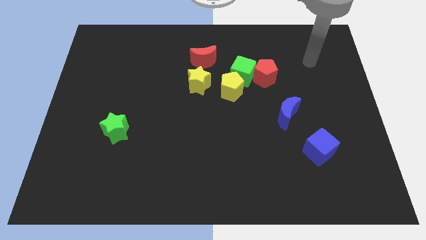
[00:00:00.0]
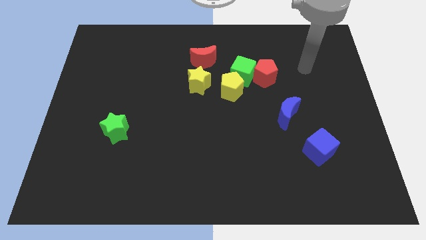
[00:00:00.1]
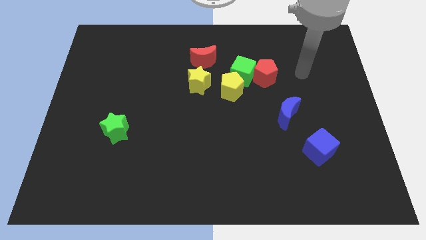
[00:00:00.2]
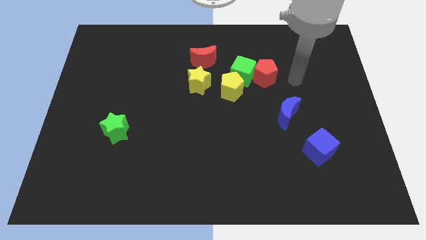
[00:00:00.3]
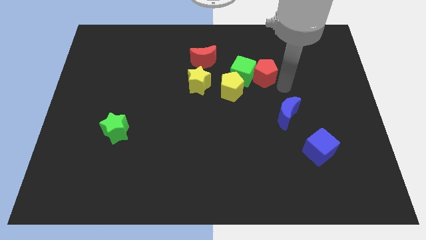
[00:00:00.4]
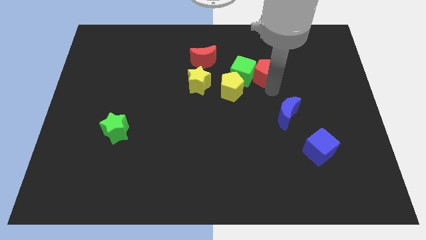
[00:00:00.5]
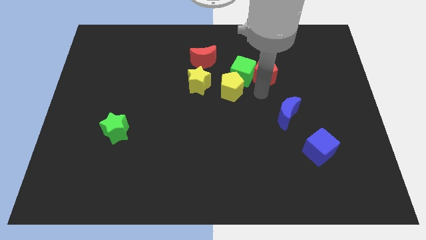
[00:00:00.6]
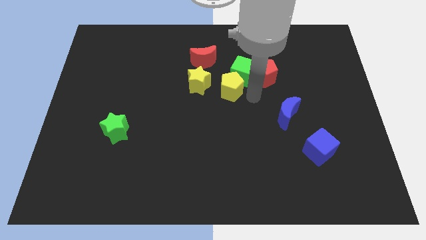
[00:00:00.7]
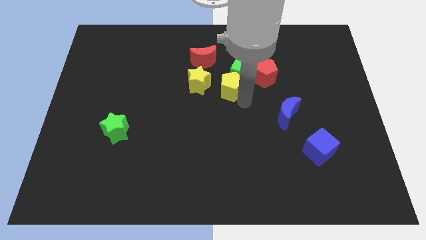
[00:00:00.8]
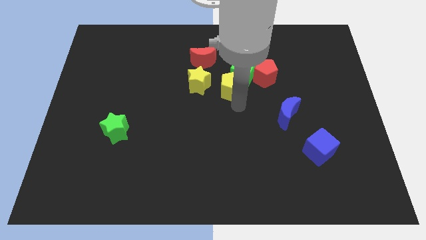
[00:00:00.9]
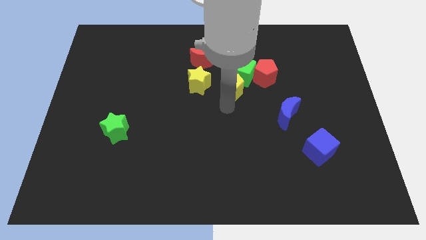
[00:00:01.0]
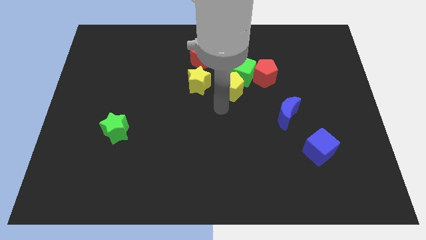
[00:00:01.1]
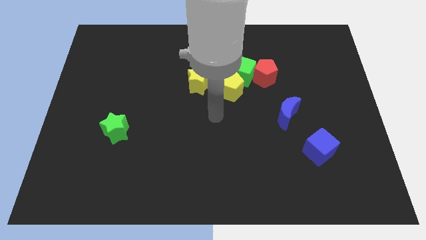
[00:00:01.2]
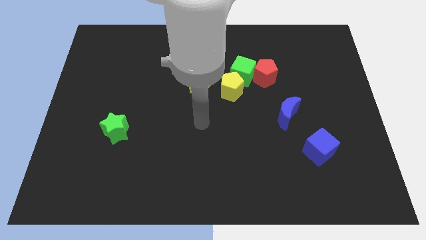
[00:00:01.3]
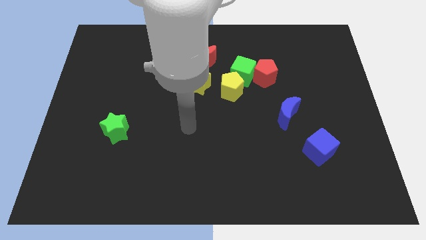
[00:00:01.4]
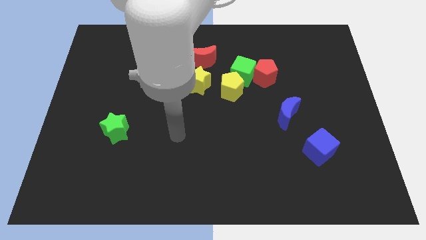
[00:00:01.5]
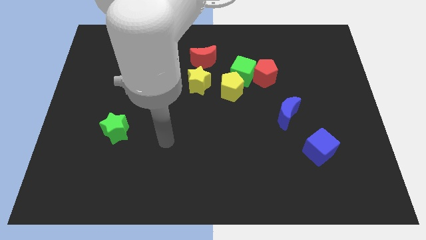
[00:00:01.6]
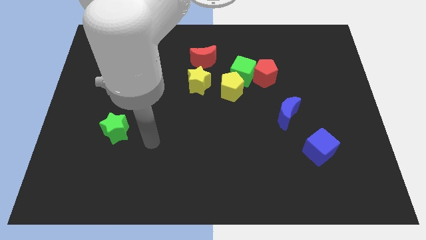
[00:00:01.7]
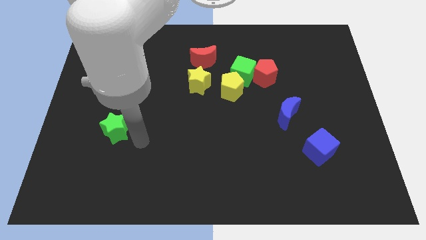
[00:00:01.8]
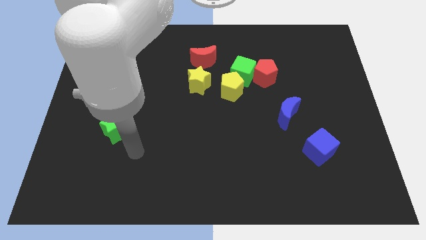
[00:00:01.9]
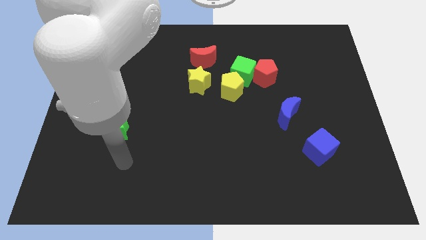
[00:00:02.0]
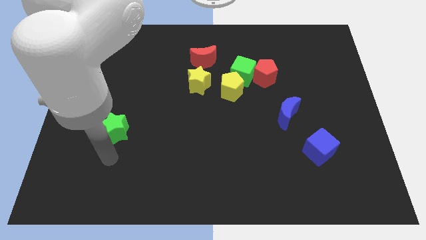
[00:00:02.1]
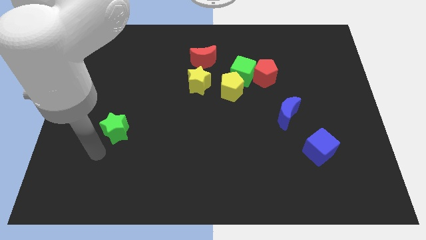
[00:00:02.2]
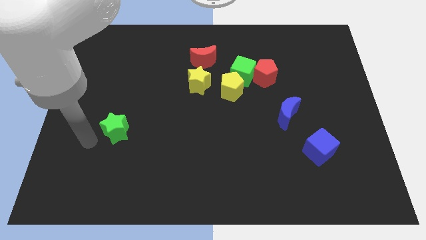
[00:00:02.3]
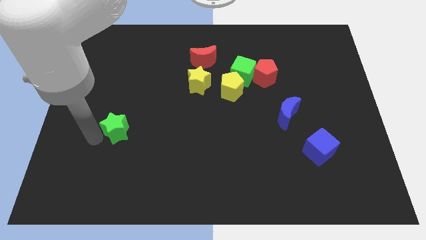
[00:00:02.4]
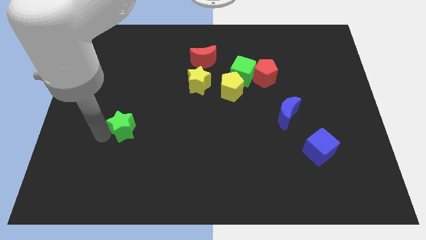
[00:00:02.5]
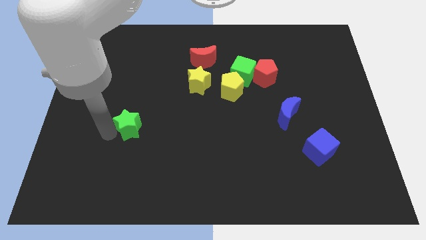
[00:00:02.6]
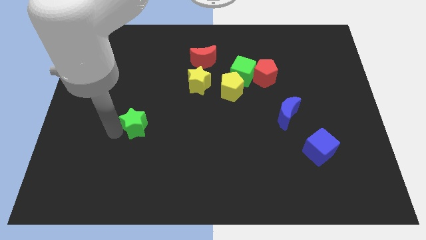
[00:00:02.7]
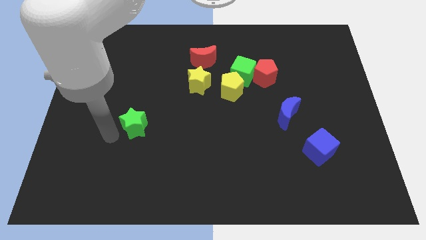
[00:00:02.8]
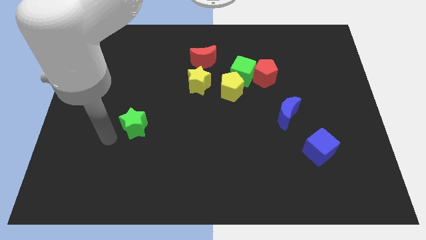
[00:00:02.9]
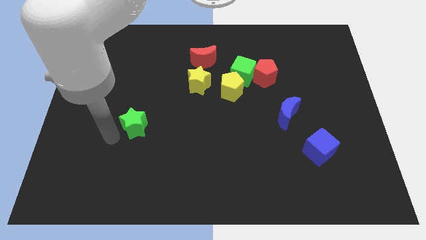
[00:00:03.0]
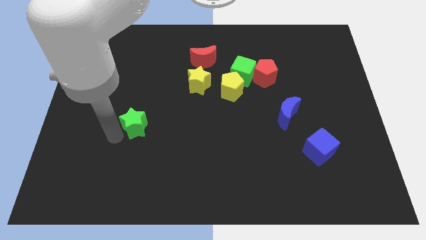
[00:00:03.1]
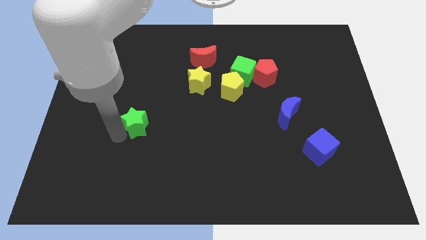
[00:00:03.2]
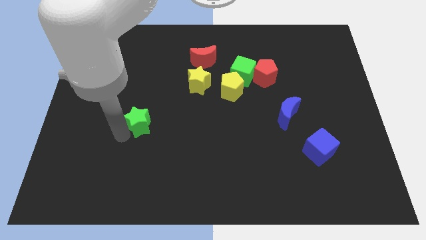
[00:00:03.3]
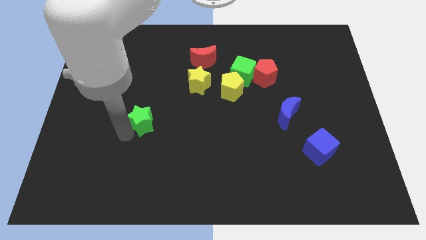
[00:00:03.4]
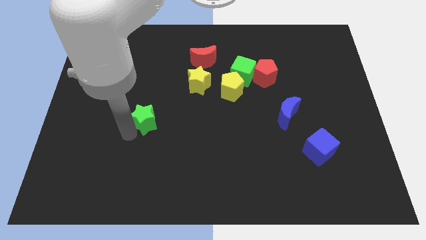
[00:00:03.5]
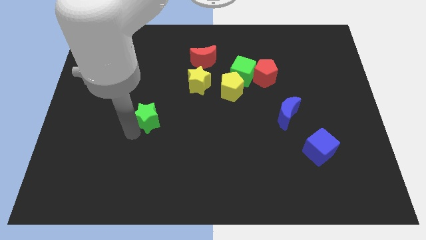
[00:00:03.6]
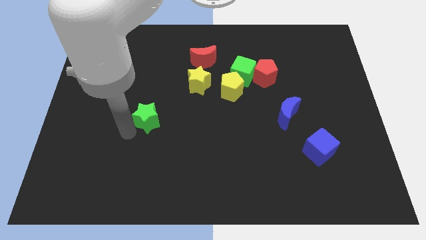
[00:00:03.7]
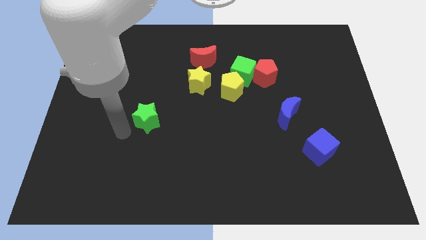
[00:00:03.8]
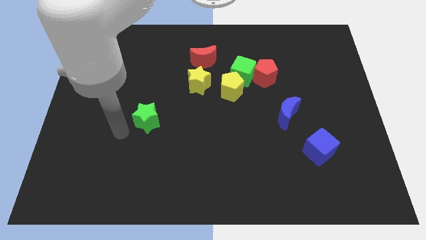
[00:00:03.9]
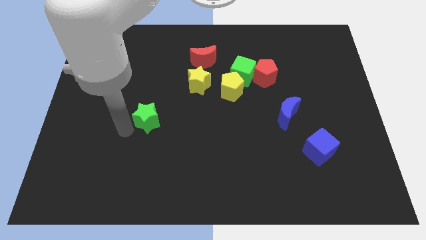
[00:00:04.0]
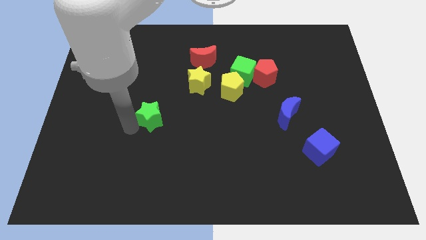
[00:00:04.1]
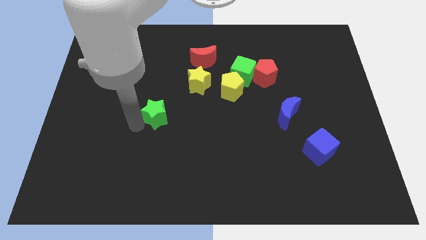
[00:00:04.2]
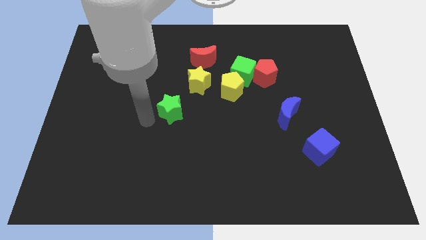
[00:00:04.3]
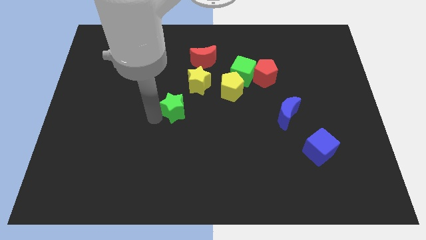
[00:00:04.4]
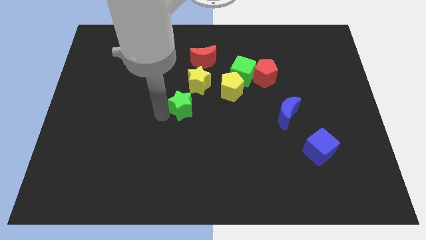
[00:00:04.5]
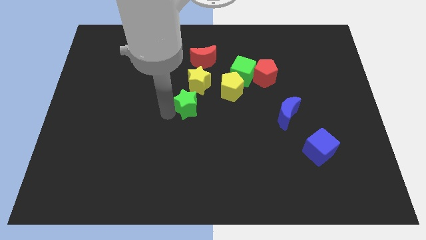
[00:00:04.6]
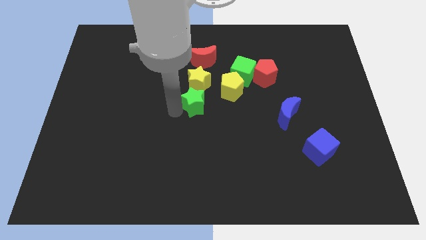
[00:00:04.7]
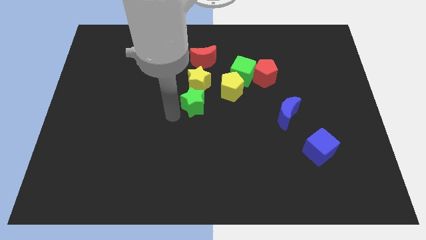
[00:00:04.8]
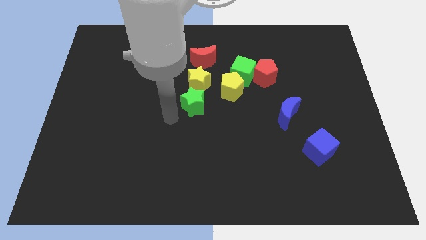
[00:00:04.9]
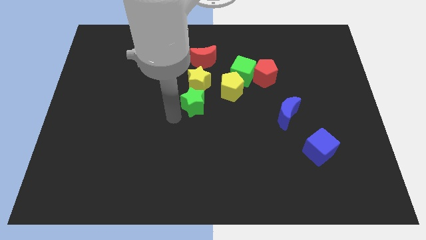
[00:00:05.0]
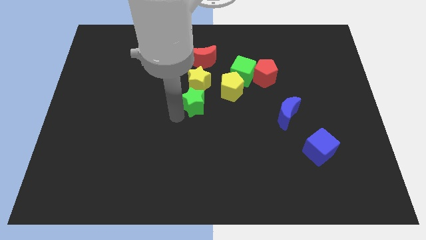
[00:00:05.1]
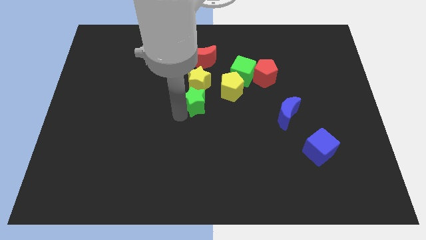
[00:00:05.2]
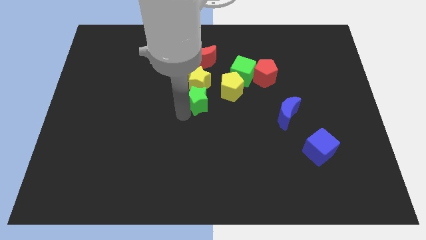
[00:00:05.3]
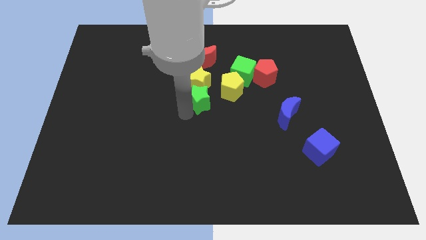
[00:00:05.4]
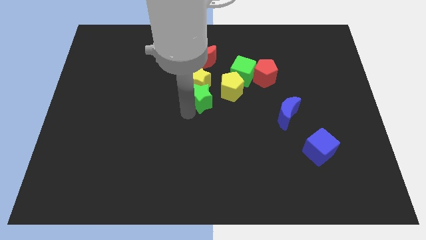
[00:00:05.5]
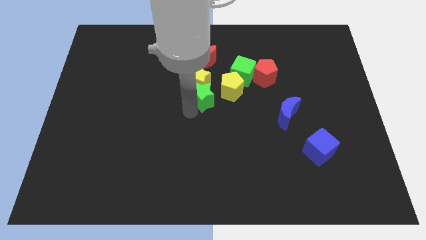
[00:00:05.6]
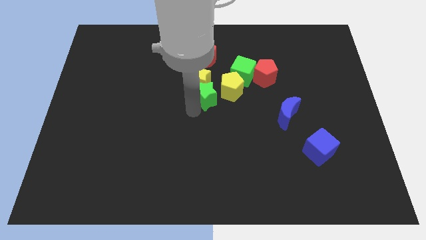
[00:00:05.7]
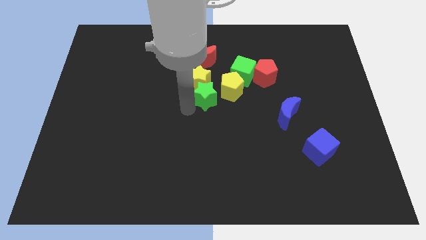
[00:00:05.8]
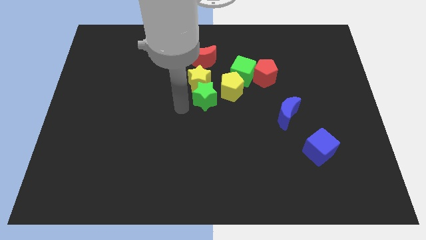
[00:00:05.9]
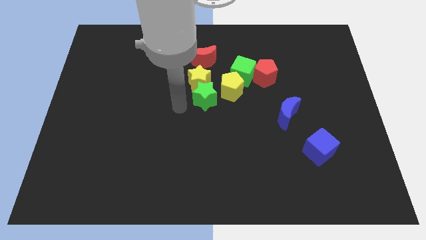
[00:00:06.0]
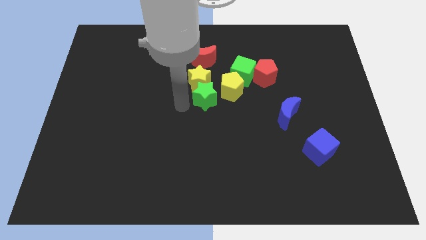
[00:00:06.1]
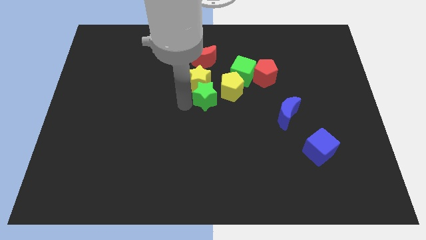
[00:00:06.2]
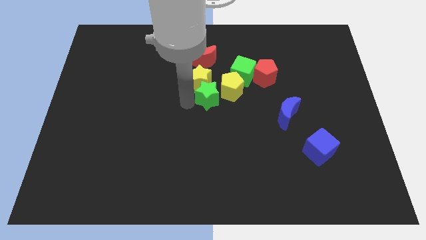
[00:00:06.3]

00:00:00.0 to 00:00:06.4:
push the green star close to the yellow pentagon
